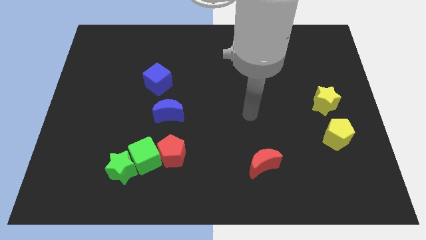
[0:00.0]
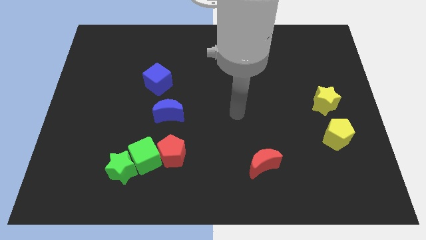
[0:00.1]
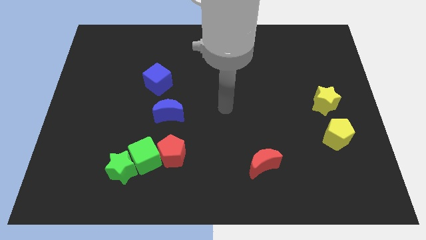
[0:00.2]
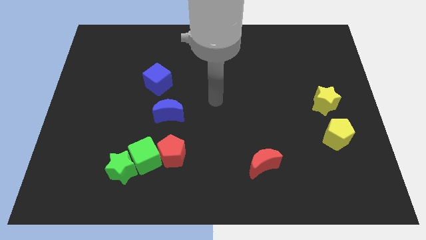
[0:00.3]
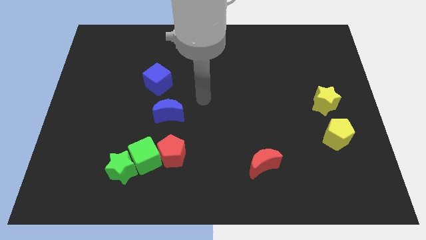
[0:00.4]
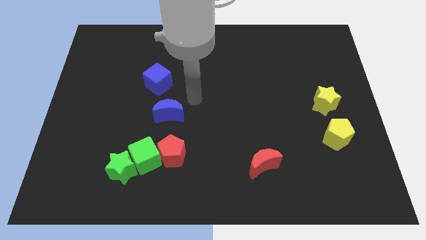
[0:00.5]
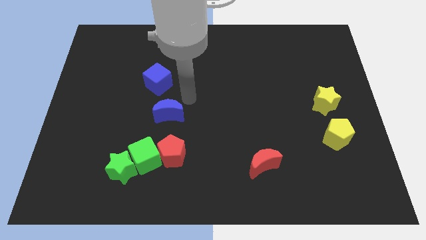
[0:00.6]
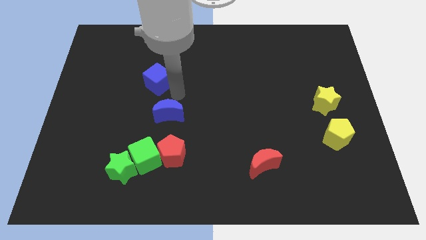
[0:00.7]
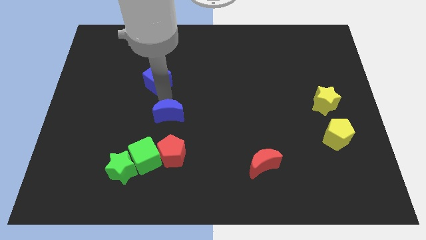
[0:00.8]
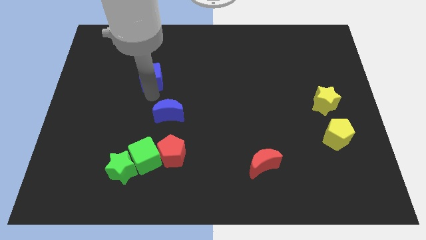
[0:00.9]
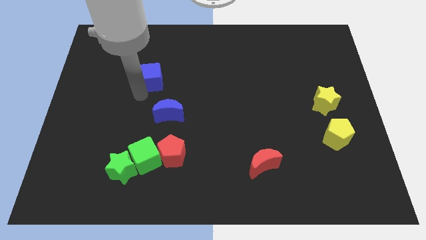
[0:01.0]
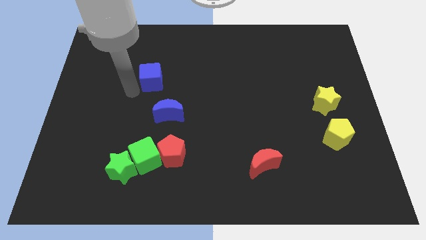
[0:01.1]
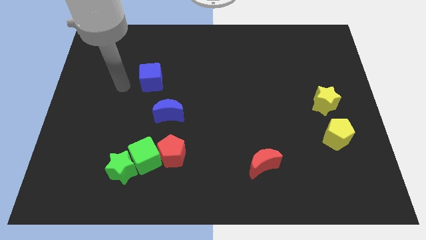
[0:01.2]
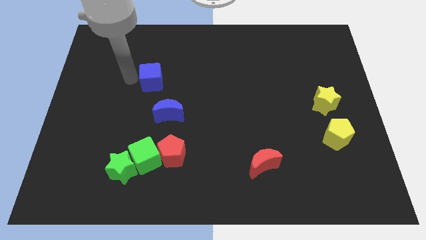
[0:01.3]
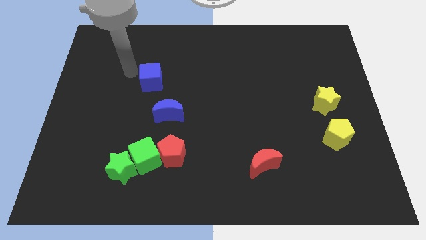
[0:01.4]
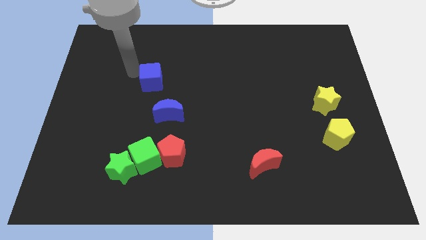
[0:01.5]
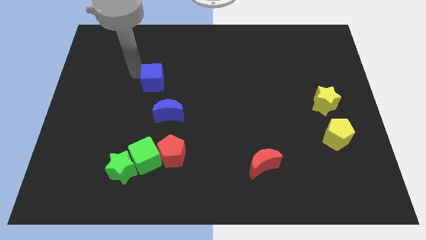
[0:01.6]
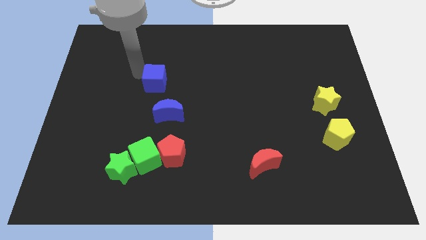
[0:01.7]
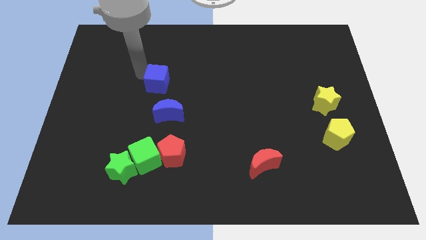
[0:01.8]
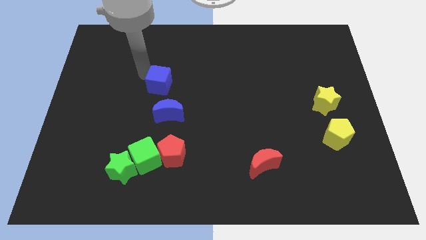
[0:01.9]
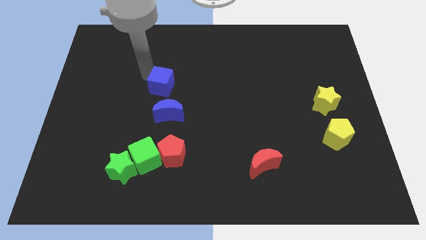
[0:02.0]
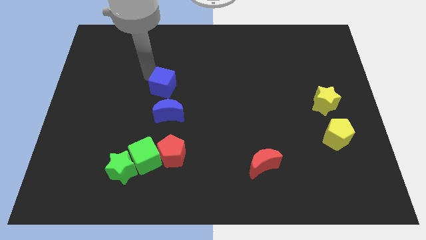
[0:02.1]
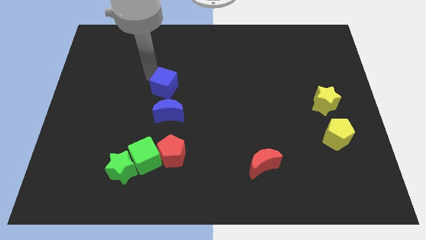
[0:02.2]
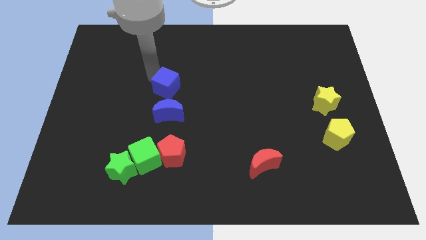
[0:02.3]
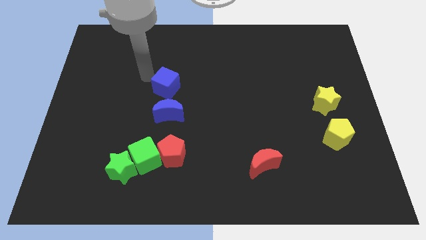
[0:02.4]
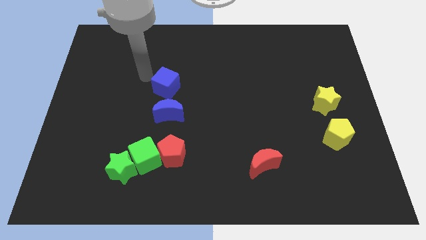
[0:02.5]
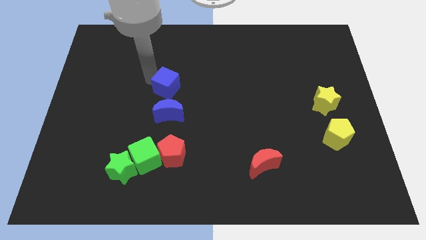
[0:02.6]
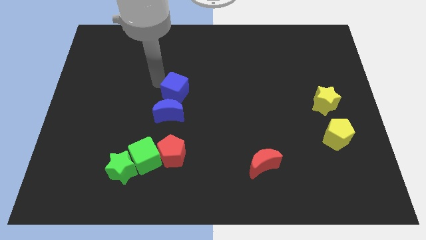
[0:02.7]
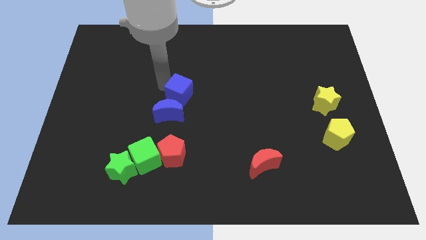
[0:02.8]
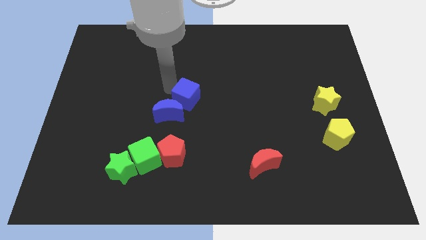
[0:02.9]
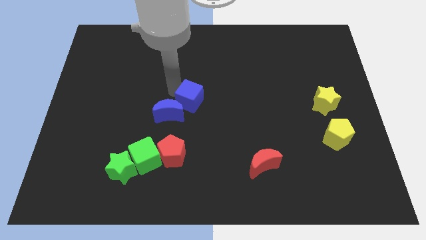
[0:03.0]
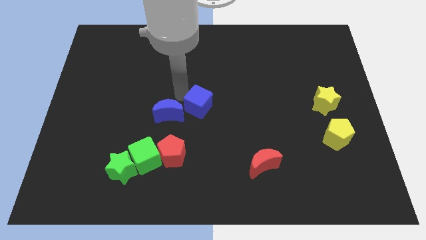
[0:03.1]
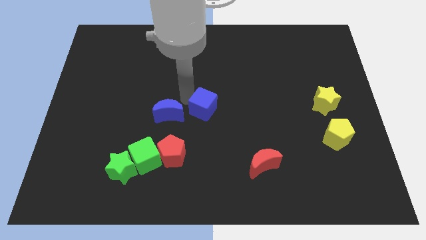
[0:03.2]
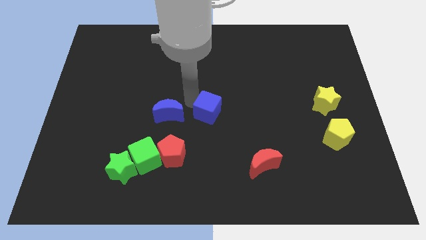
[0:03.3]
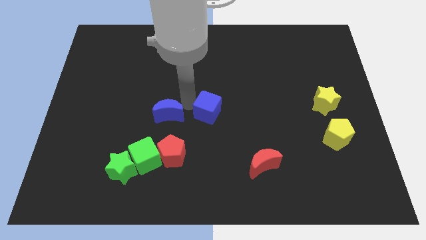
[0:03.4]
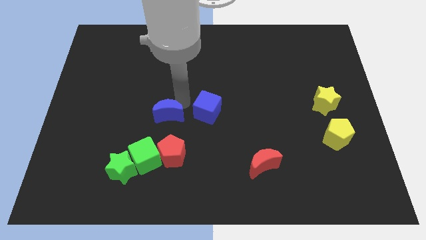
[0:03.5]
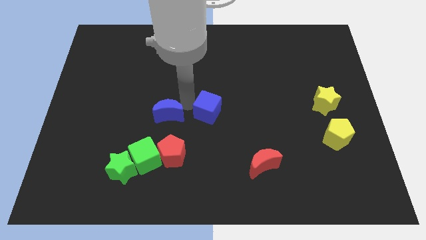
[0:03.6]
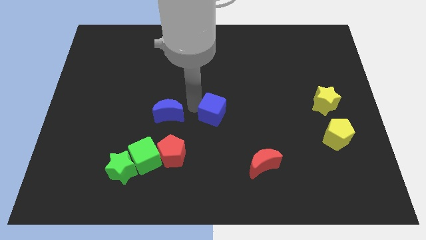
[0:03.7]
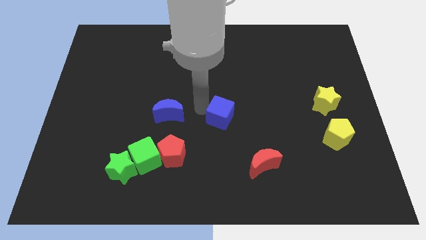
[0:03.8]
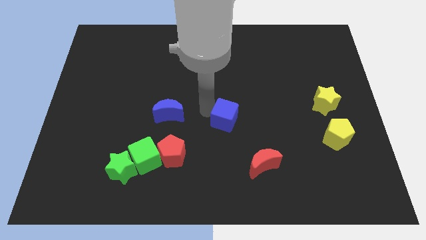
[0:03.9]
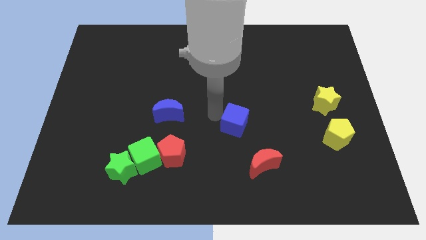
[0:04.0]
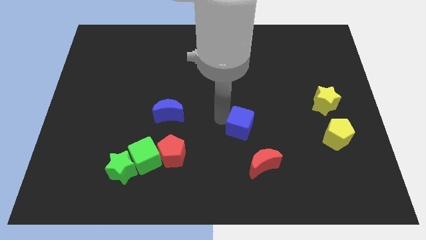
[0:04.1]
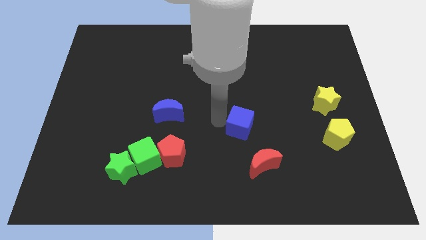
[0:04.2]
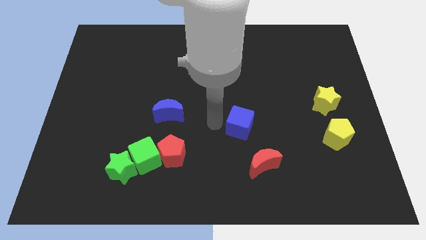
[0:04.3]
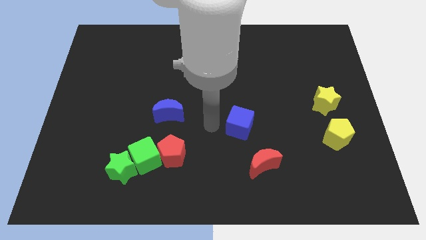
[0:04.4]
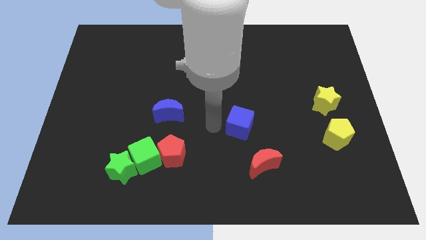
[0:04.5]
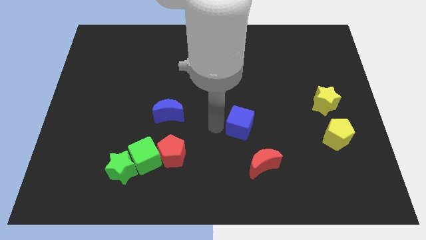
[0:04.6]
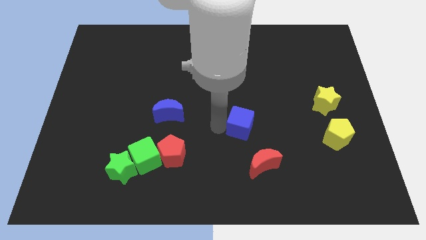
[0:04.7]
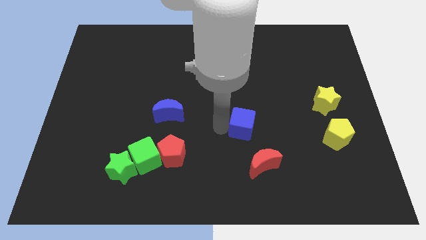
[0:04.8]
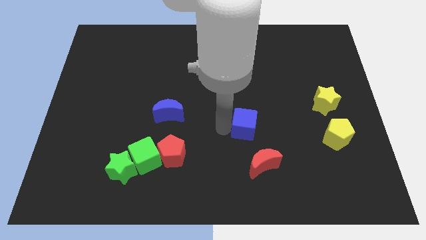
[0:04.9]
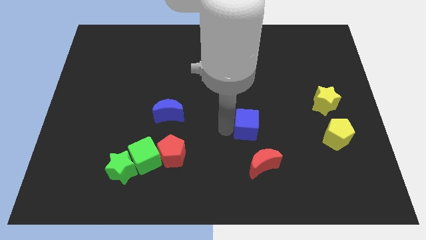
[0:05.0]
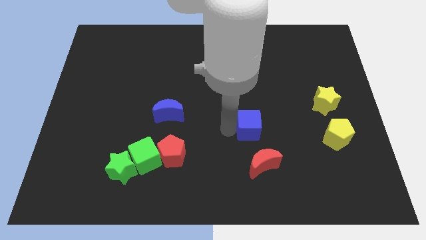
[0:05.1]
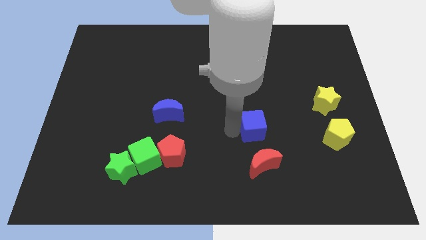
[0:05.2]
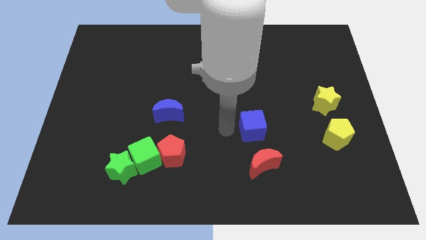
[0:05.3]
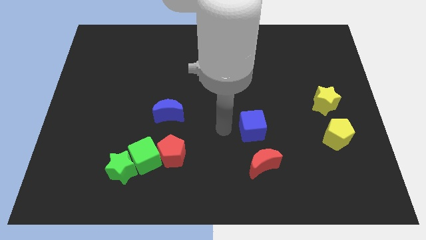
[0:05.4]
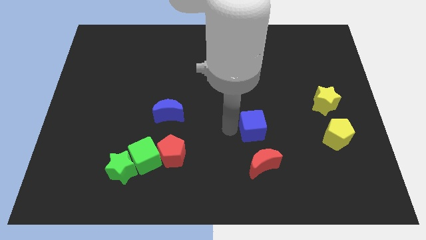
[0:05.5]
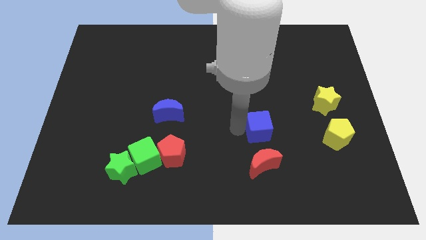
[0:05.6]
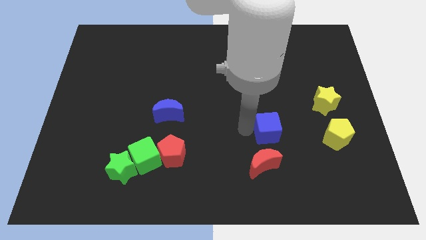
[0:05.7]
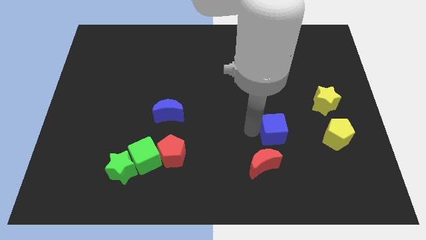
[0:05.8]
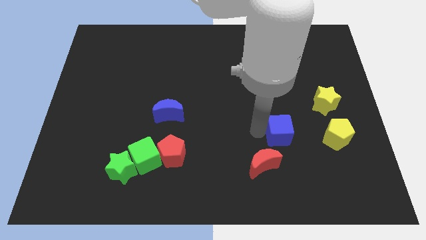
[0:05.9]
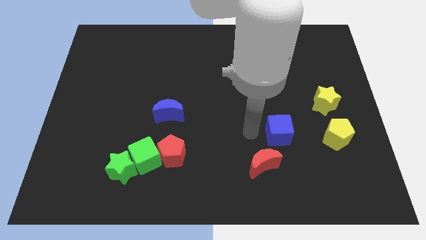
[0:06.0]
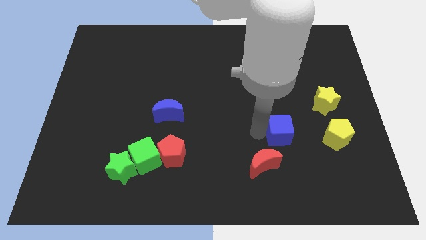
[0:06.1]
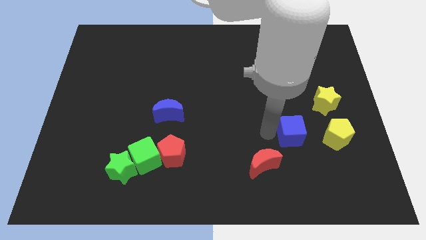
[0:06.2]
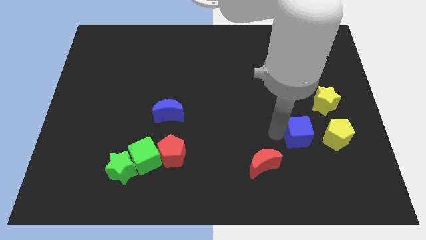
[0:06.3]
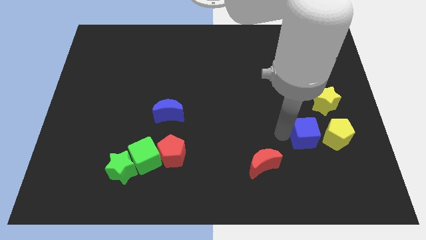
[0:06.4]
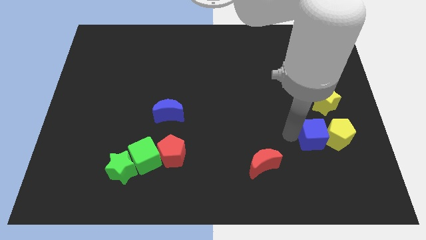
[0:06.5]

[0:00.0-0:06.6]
move the blue cube towards the yellow pentagon

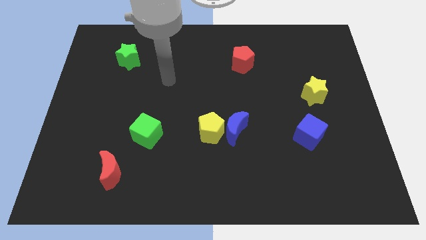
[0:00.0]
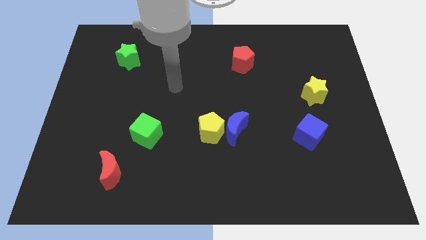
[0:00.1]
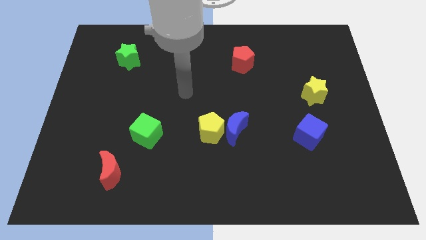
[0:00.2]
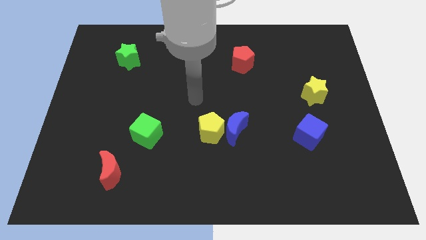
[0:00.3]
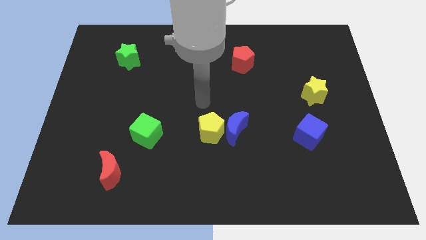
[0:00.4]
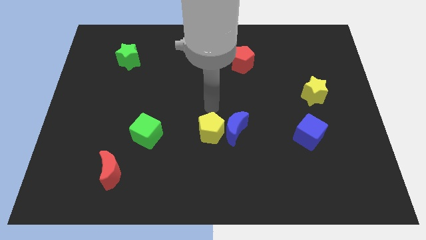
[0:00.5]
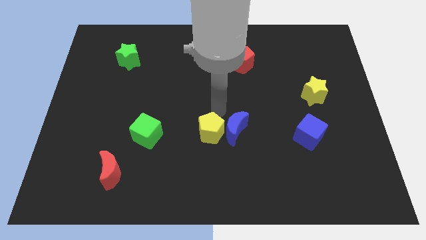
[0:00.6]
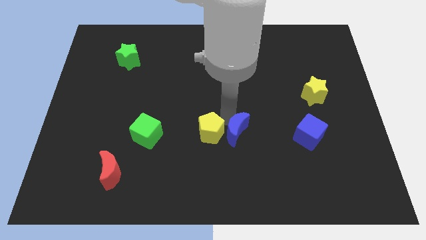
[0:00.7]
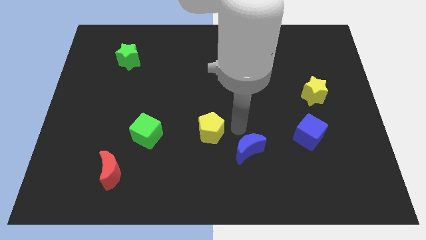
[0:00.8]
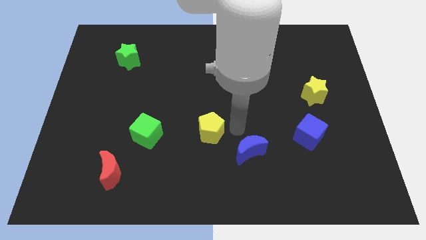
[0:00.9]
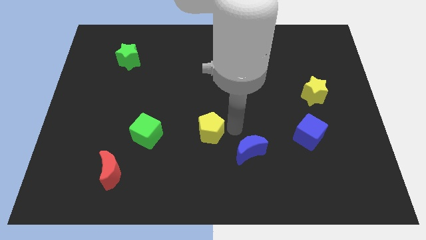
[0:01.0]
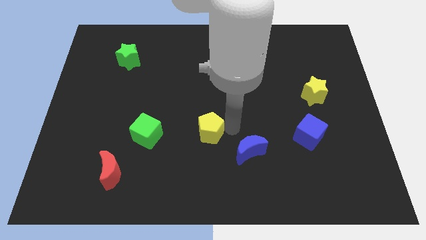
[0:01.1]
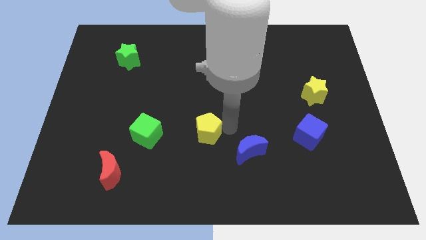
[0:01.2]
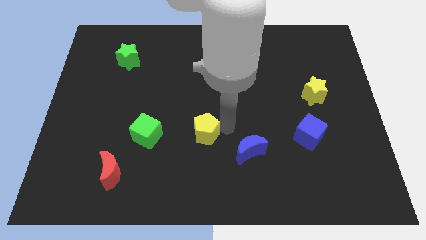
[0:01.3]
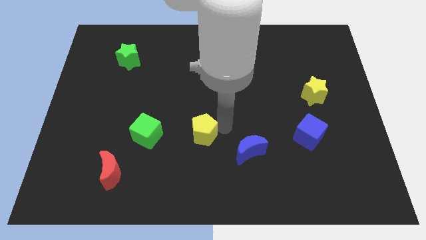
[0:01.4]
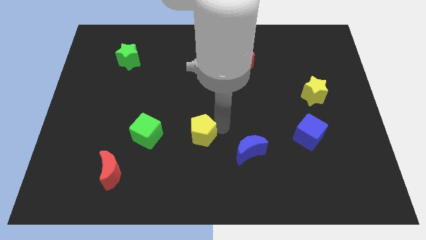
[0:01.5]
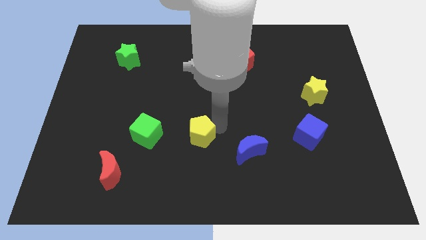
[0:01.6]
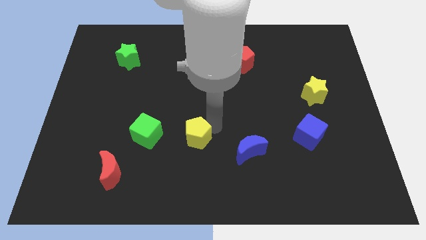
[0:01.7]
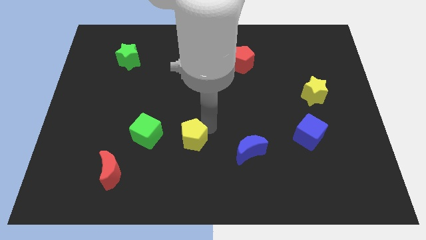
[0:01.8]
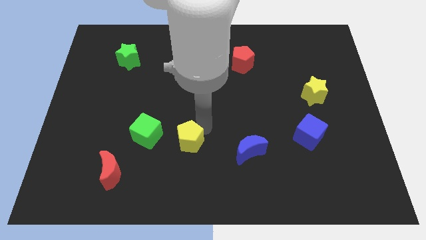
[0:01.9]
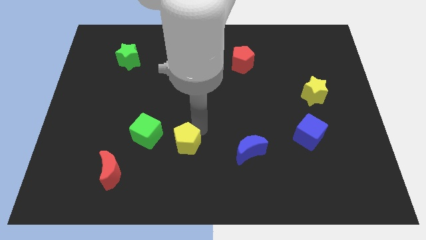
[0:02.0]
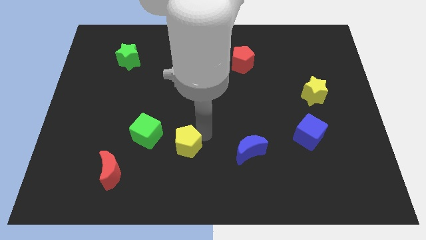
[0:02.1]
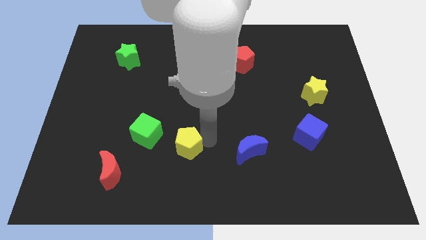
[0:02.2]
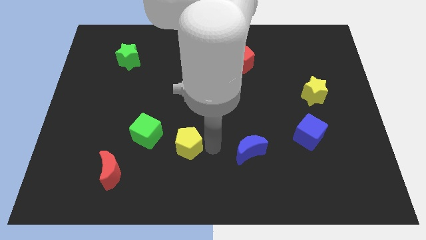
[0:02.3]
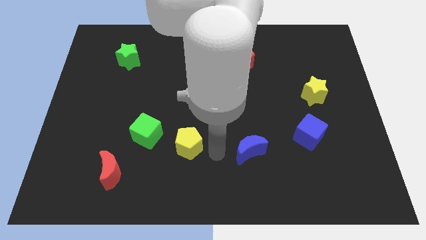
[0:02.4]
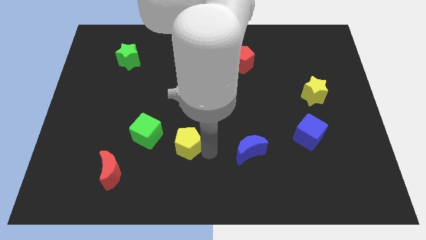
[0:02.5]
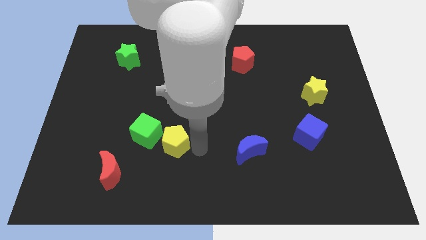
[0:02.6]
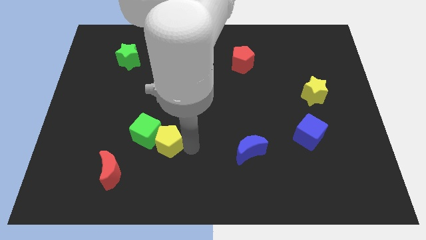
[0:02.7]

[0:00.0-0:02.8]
put the yellow pentagon to the green cube
